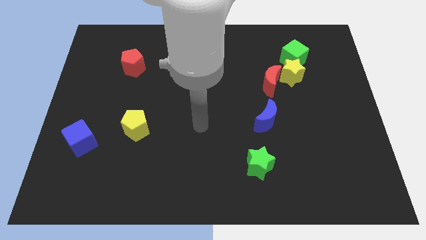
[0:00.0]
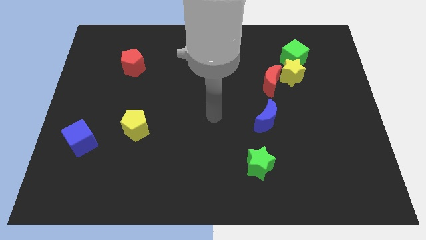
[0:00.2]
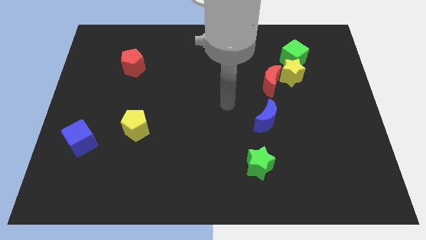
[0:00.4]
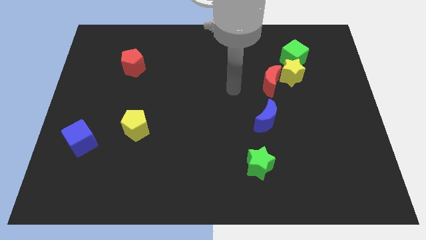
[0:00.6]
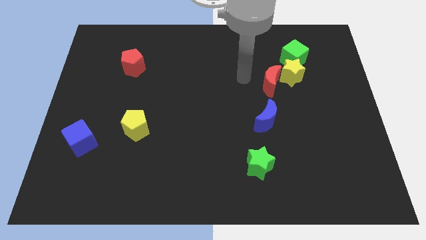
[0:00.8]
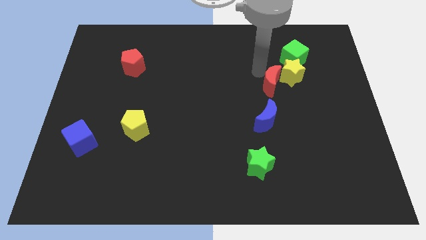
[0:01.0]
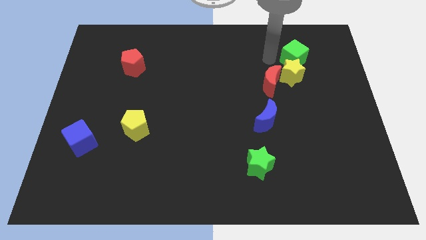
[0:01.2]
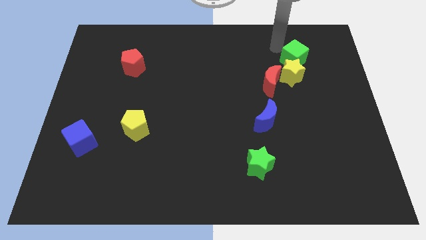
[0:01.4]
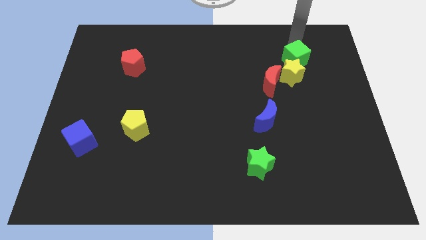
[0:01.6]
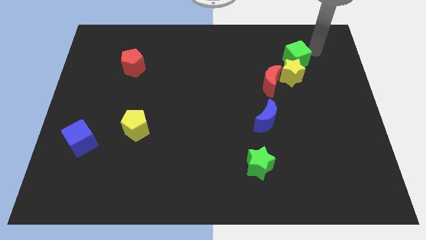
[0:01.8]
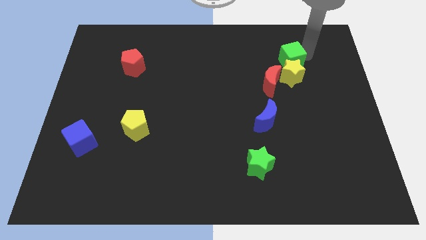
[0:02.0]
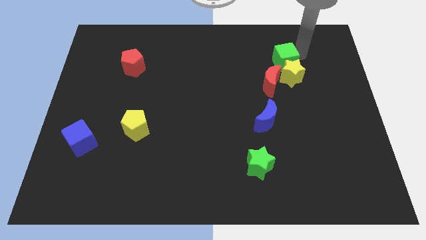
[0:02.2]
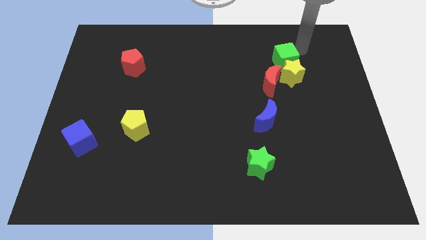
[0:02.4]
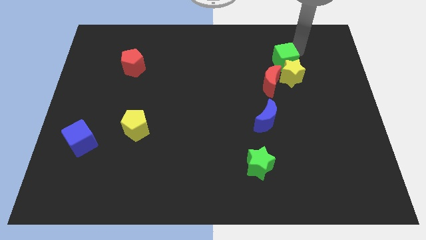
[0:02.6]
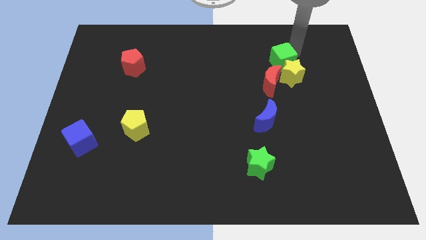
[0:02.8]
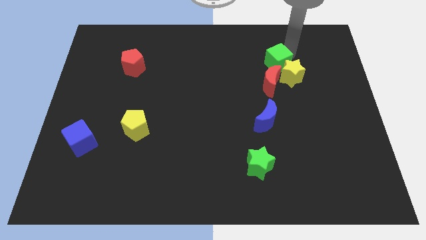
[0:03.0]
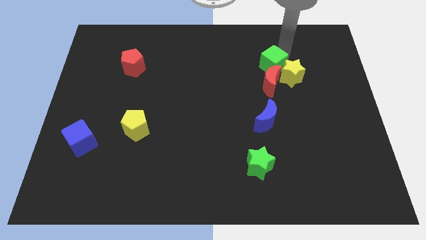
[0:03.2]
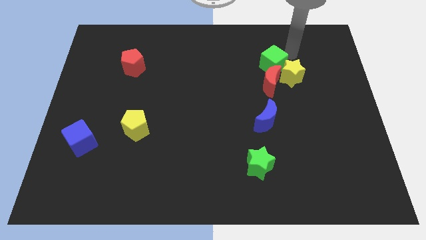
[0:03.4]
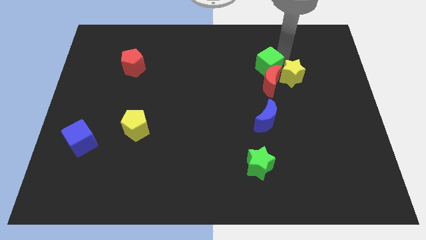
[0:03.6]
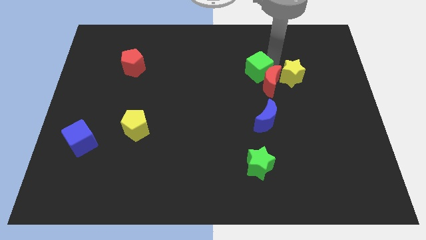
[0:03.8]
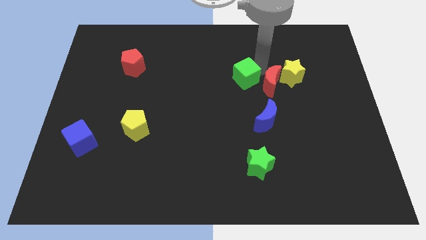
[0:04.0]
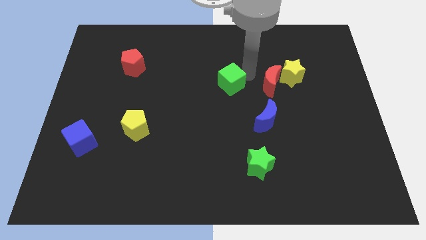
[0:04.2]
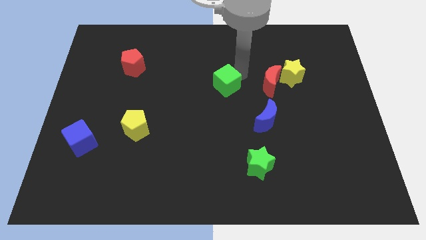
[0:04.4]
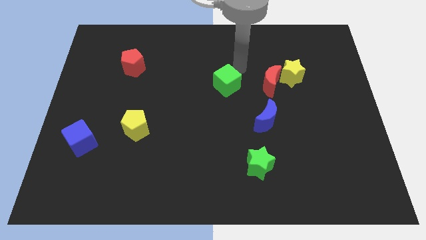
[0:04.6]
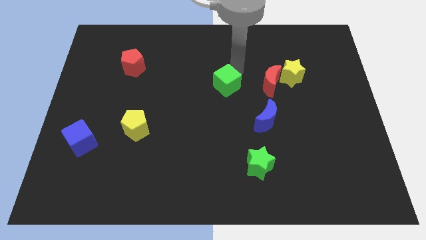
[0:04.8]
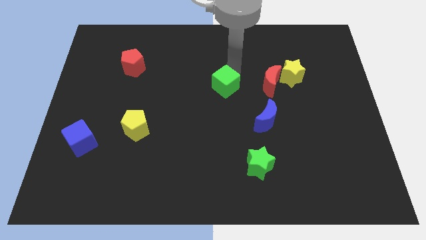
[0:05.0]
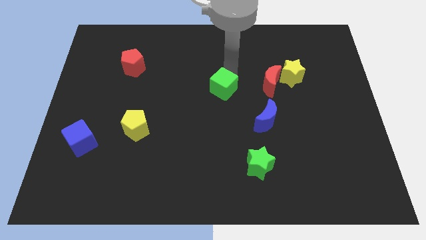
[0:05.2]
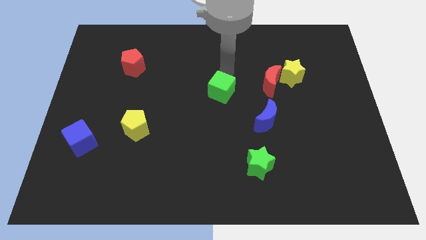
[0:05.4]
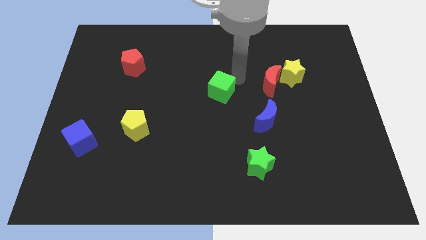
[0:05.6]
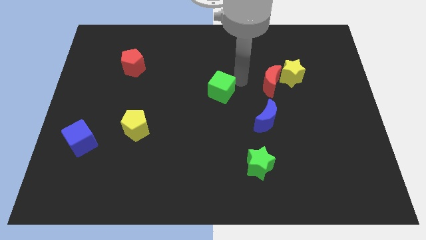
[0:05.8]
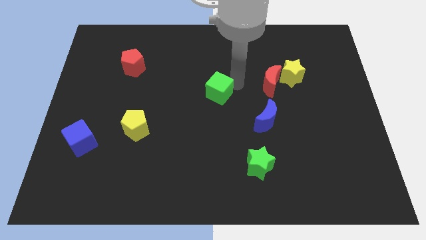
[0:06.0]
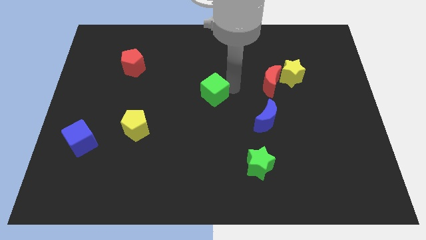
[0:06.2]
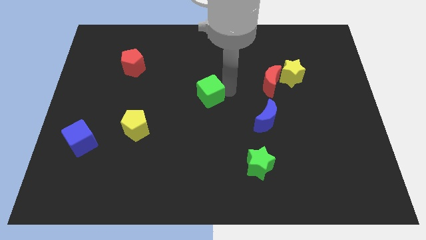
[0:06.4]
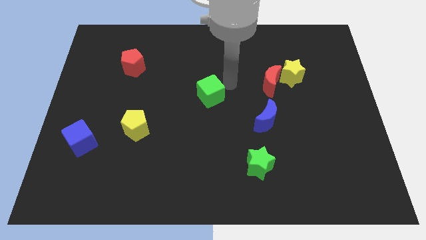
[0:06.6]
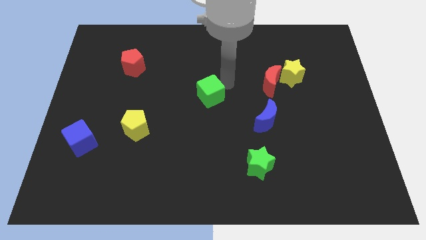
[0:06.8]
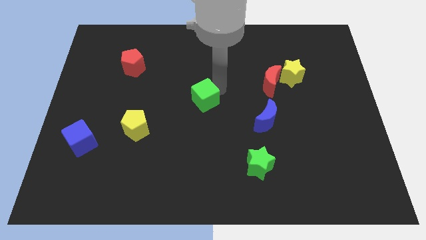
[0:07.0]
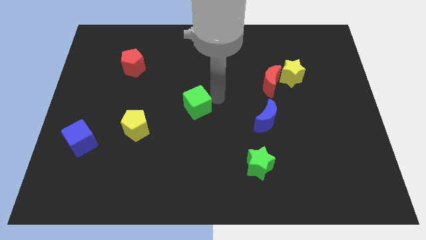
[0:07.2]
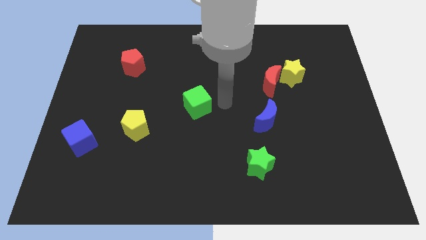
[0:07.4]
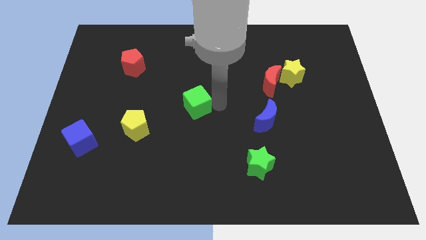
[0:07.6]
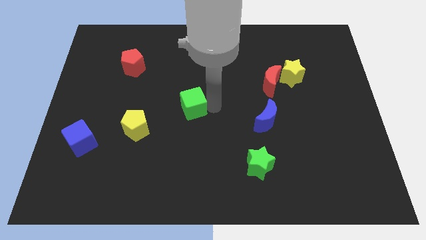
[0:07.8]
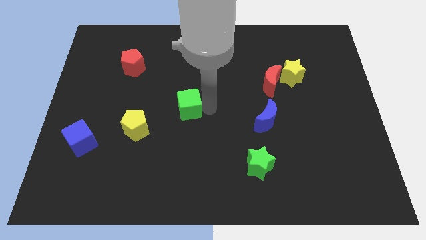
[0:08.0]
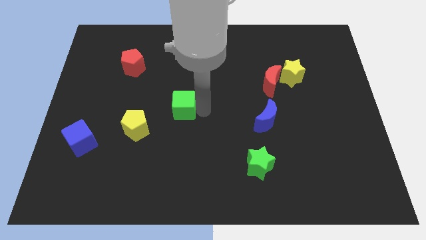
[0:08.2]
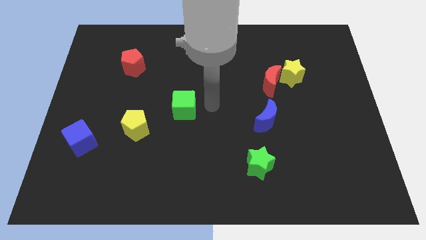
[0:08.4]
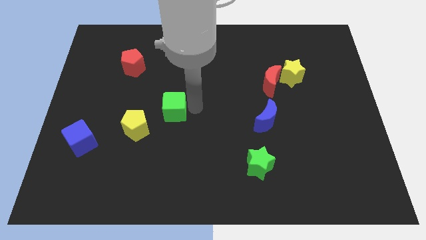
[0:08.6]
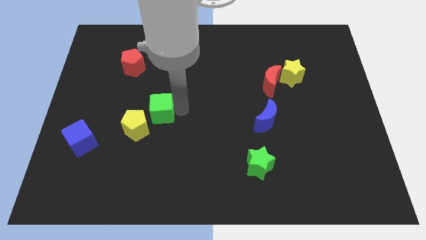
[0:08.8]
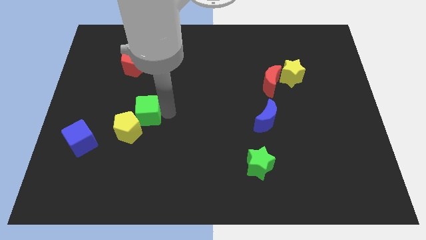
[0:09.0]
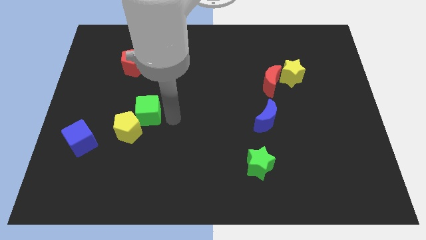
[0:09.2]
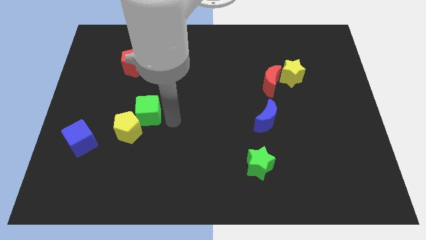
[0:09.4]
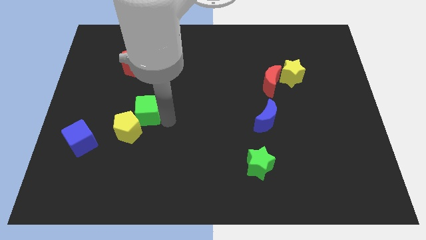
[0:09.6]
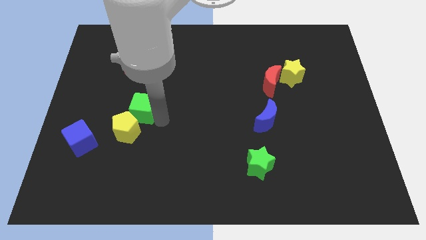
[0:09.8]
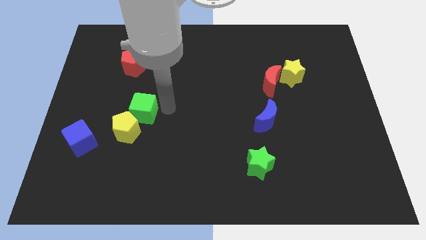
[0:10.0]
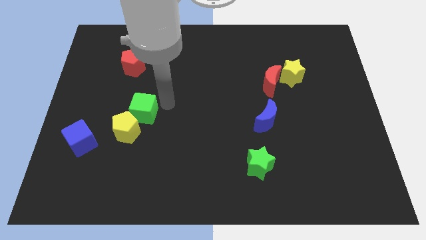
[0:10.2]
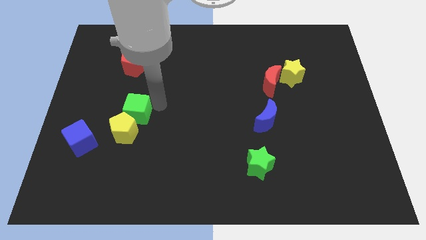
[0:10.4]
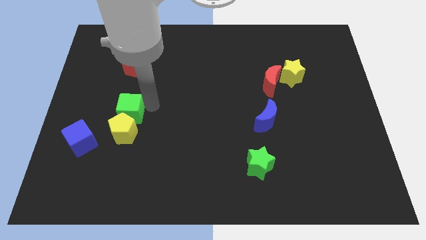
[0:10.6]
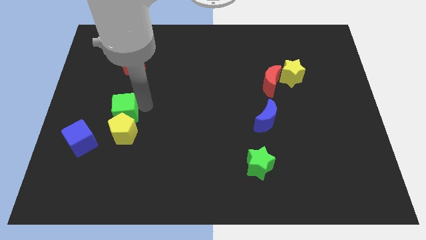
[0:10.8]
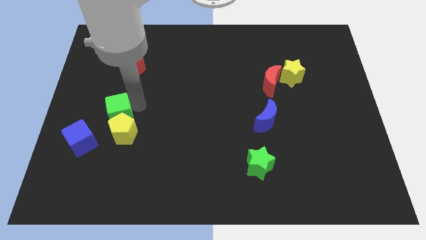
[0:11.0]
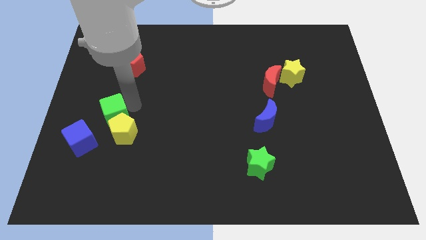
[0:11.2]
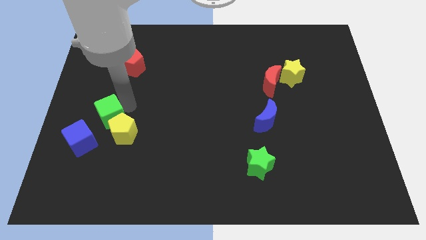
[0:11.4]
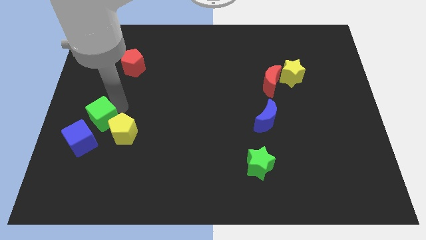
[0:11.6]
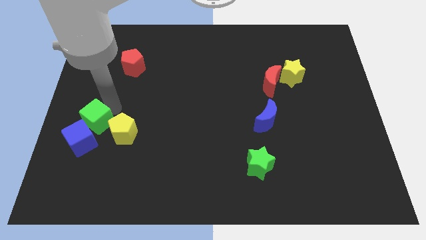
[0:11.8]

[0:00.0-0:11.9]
push the green cube to the blue cube

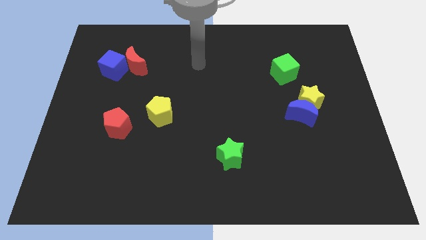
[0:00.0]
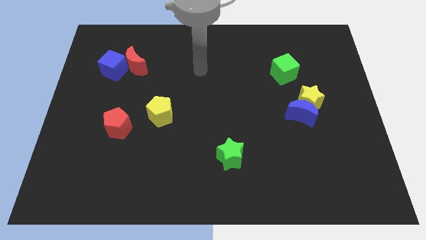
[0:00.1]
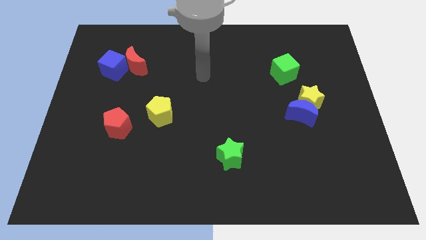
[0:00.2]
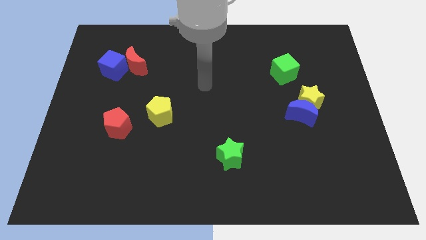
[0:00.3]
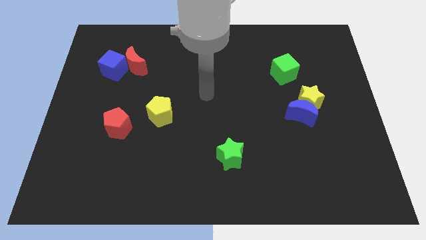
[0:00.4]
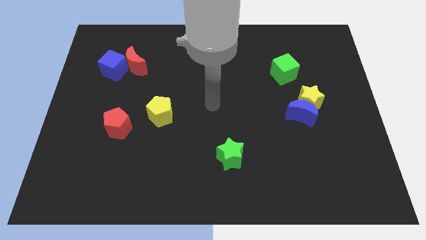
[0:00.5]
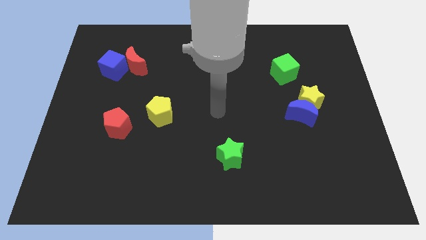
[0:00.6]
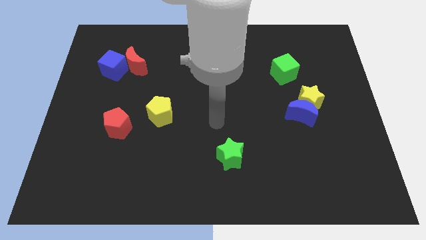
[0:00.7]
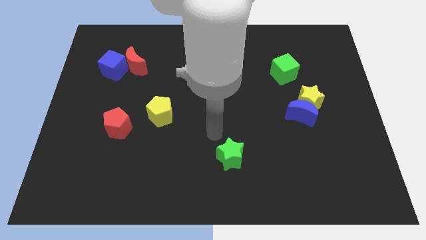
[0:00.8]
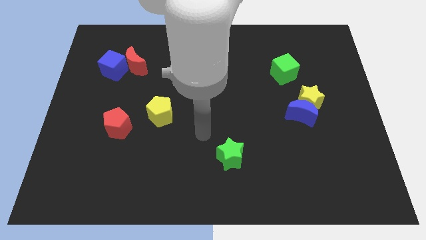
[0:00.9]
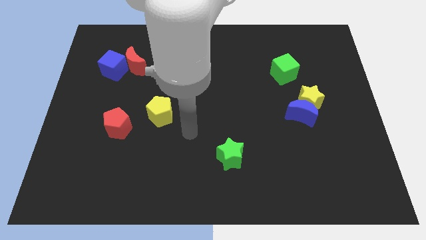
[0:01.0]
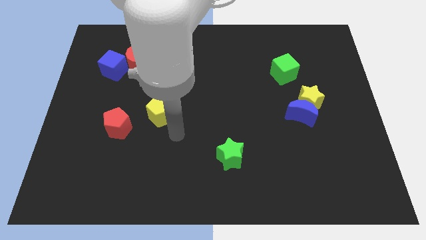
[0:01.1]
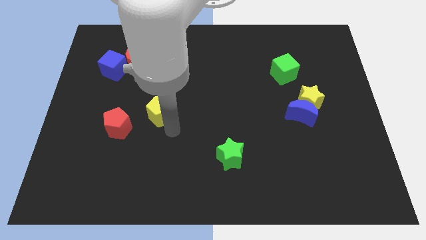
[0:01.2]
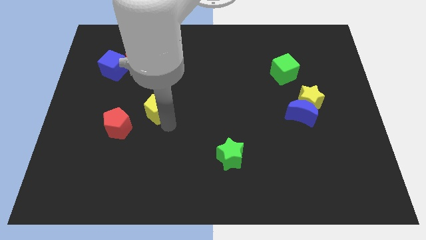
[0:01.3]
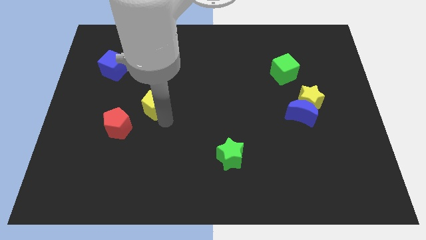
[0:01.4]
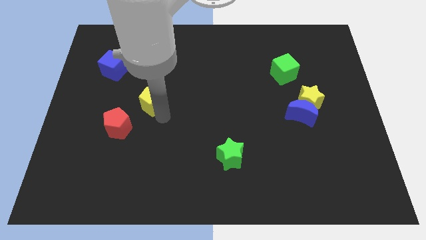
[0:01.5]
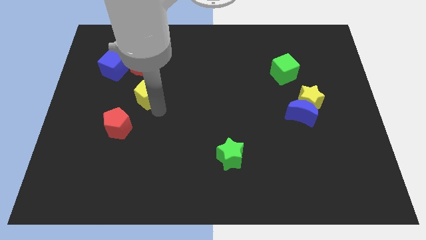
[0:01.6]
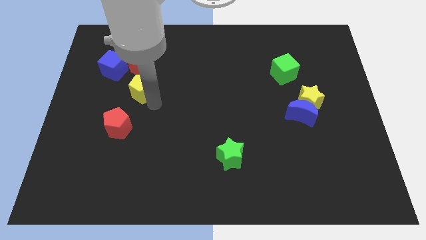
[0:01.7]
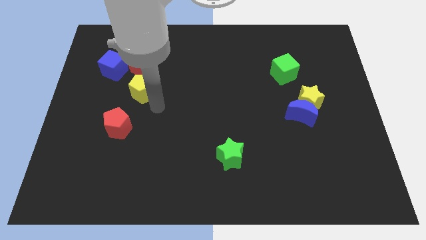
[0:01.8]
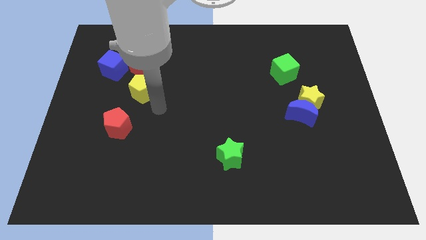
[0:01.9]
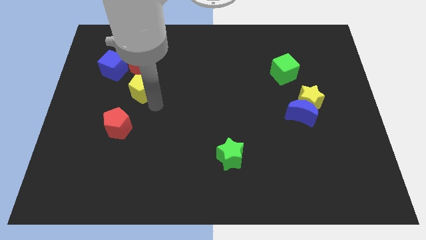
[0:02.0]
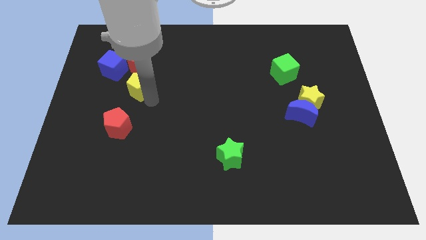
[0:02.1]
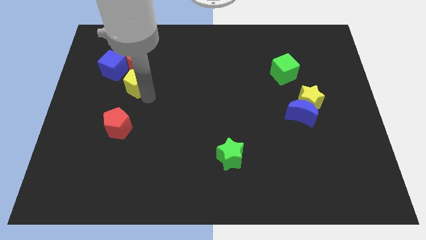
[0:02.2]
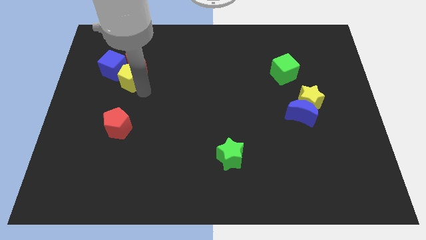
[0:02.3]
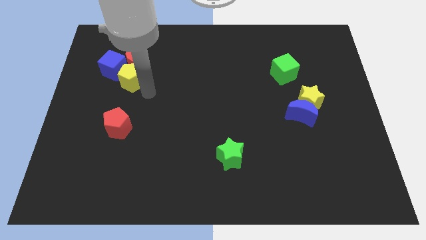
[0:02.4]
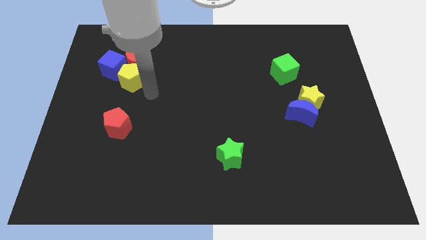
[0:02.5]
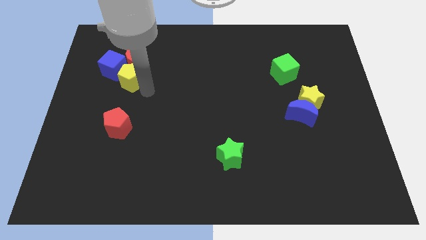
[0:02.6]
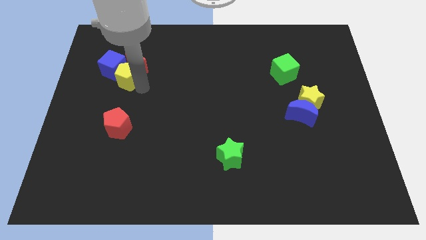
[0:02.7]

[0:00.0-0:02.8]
move the yellow pentagon close to the blue cube
